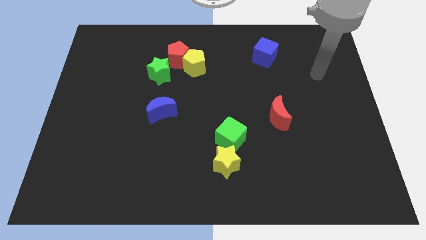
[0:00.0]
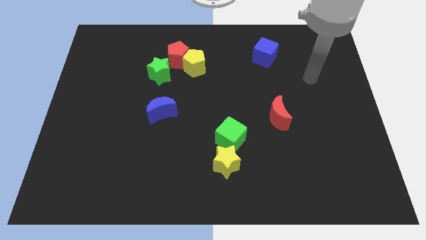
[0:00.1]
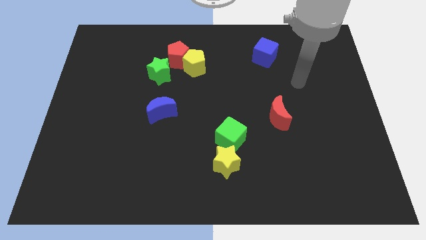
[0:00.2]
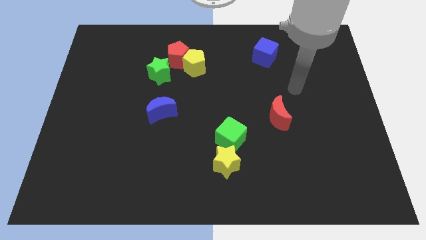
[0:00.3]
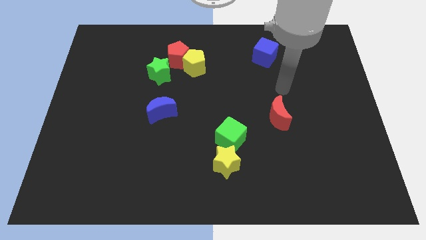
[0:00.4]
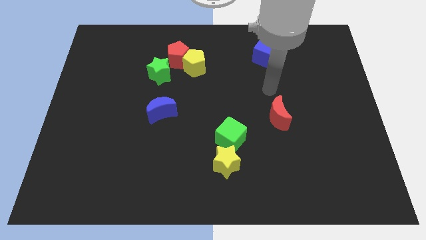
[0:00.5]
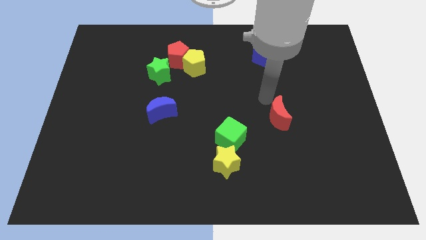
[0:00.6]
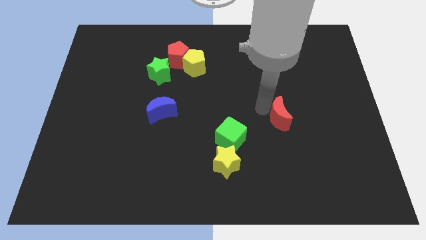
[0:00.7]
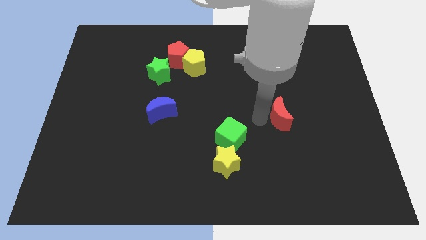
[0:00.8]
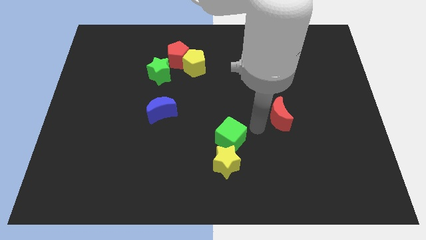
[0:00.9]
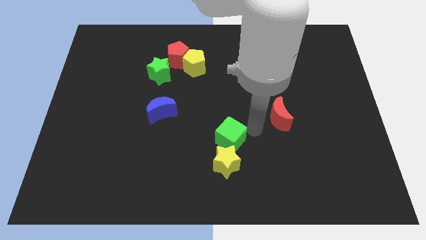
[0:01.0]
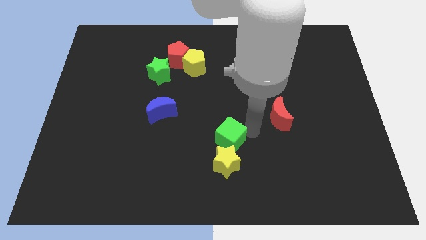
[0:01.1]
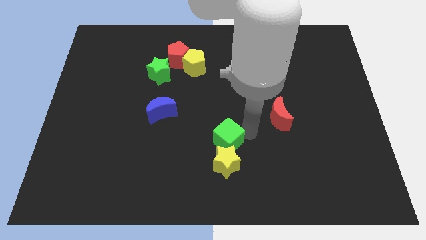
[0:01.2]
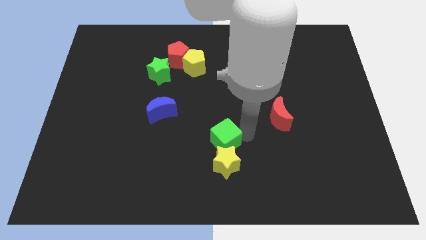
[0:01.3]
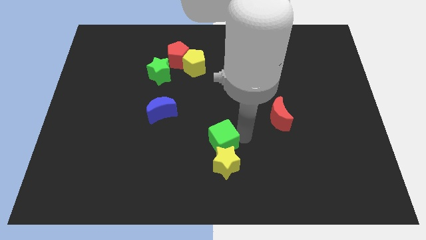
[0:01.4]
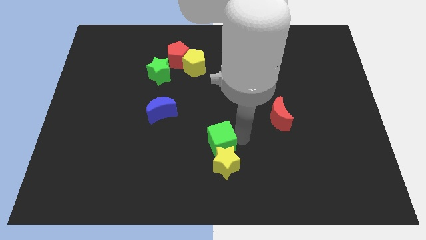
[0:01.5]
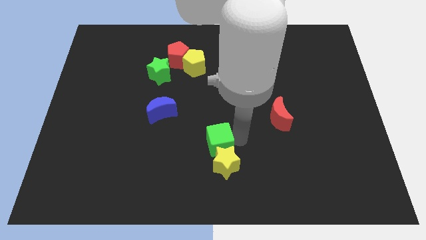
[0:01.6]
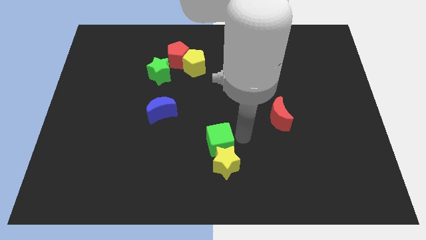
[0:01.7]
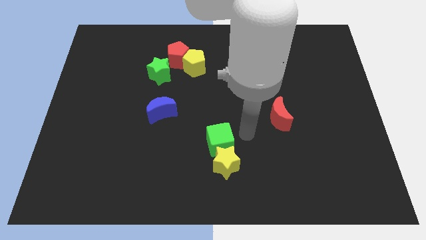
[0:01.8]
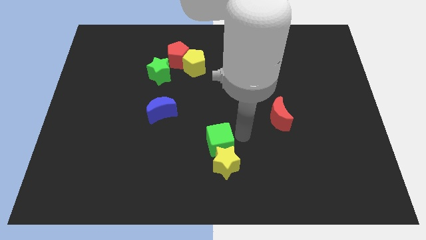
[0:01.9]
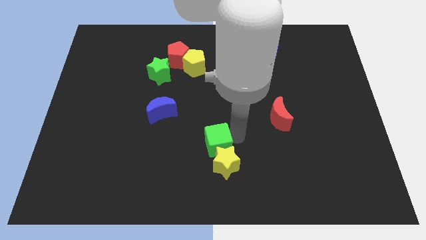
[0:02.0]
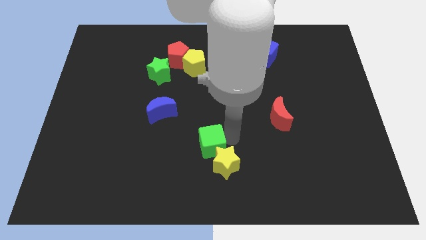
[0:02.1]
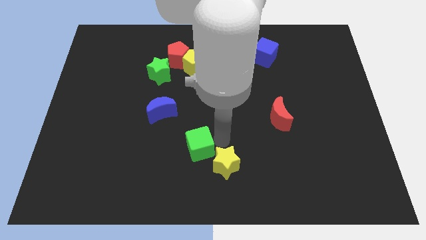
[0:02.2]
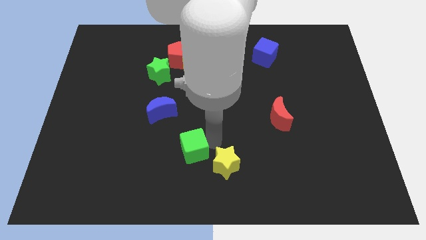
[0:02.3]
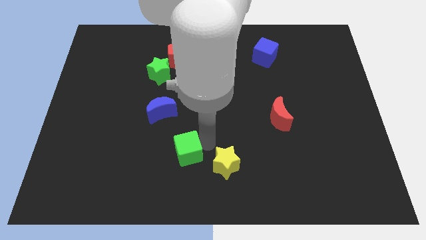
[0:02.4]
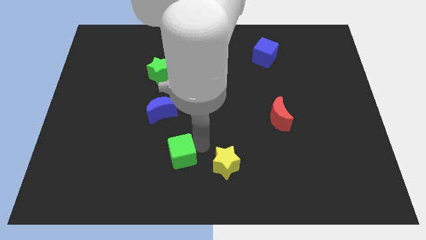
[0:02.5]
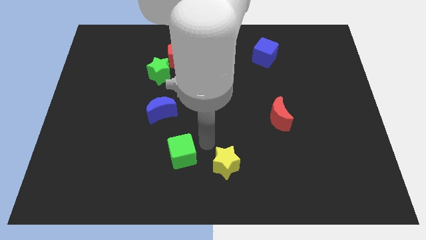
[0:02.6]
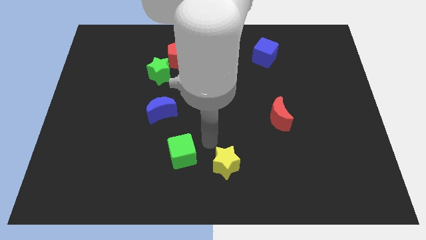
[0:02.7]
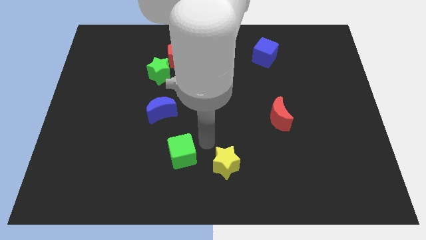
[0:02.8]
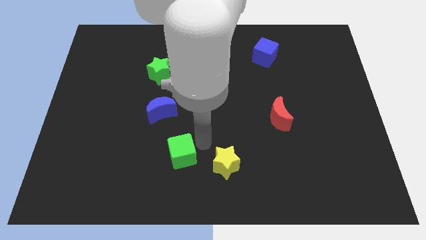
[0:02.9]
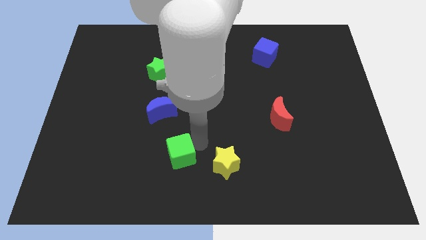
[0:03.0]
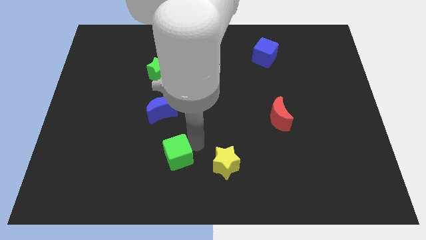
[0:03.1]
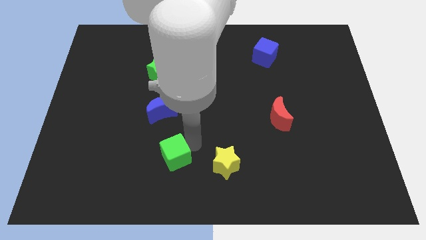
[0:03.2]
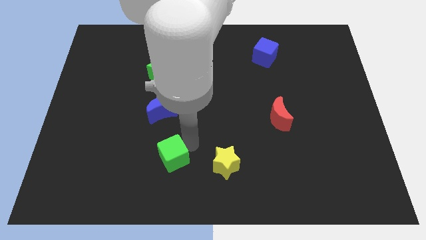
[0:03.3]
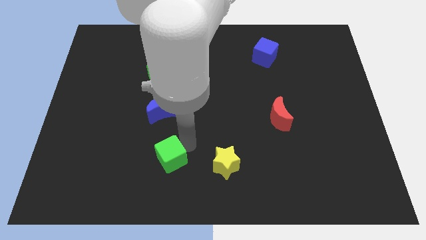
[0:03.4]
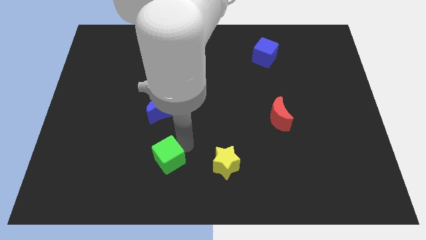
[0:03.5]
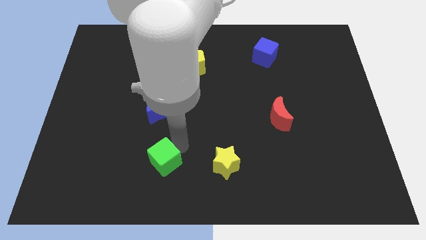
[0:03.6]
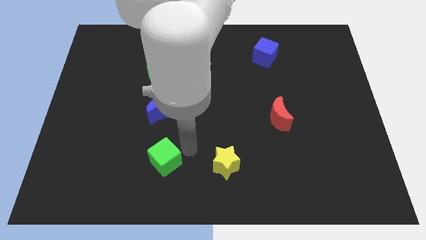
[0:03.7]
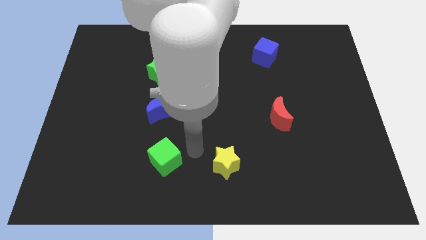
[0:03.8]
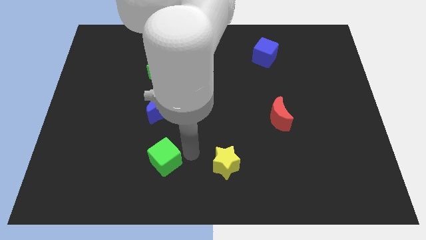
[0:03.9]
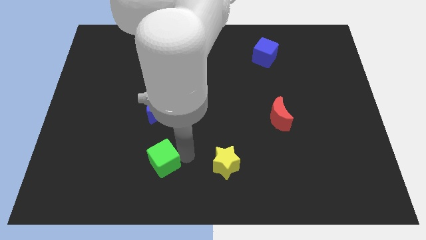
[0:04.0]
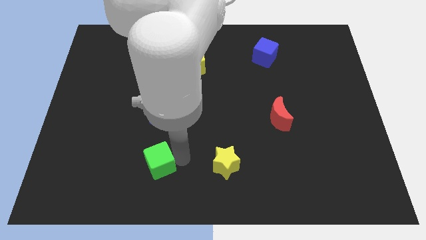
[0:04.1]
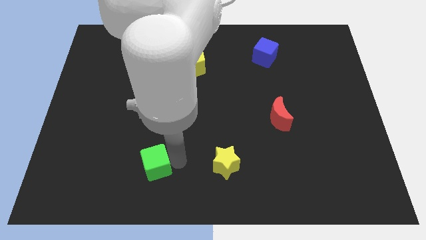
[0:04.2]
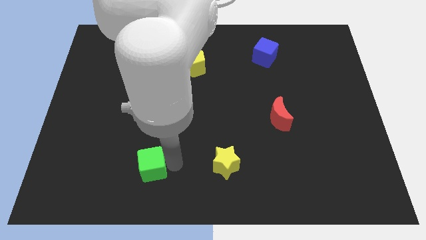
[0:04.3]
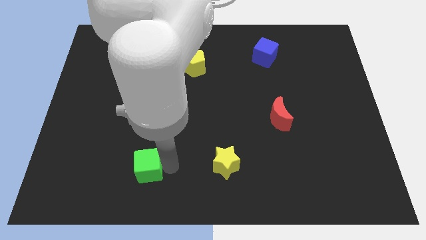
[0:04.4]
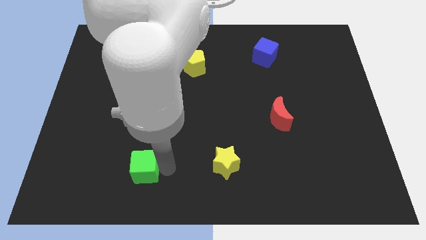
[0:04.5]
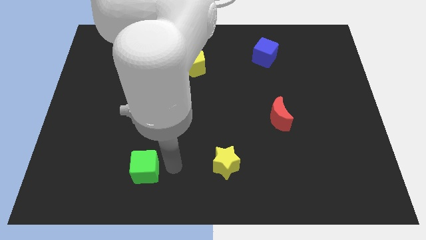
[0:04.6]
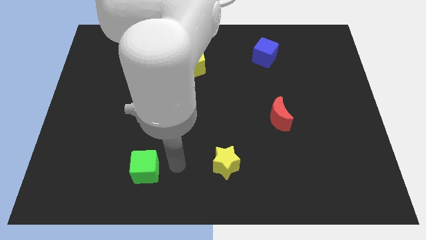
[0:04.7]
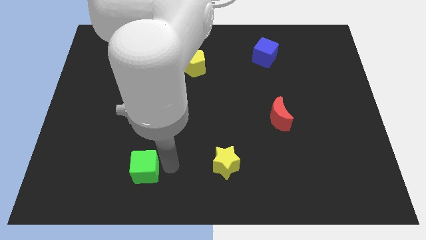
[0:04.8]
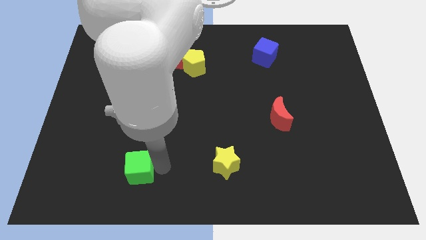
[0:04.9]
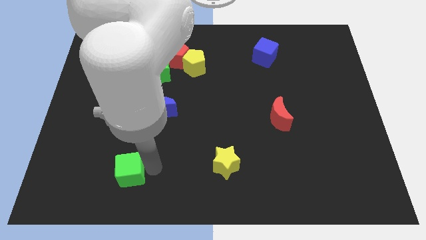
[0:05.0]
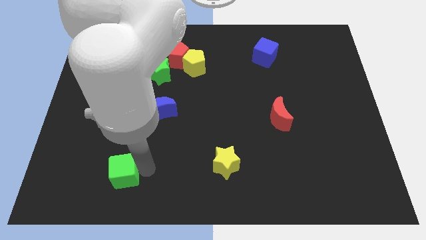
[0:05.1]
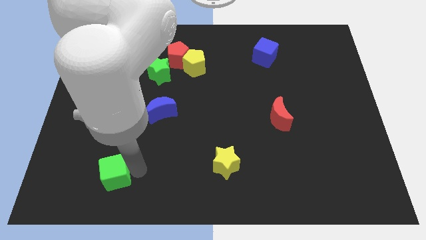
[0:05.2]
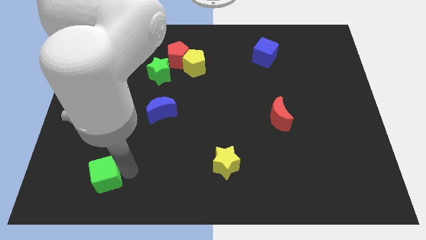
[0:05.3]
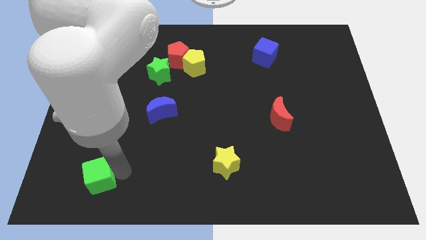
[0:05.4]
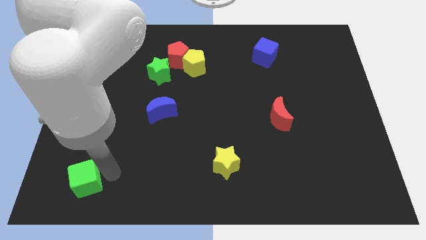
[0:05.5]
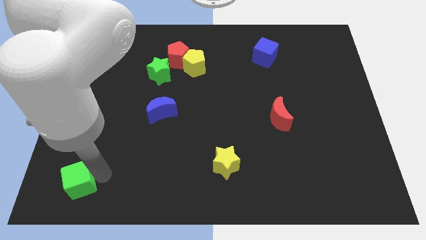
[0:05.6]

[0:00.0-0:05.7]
put the green cube to the bottom left

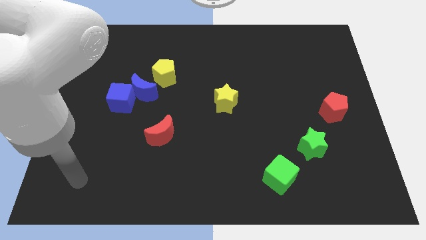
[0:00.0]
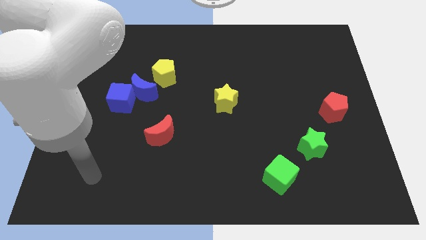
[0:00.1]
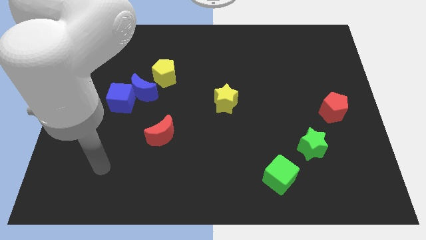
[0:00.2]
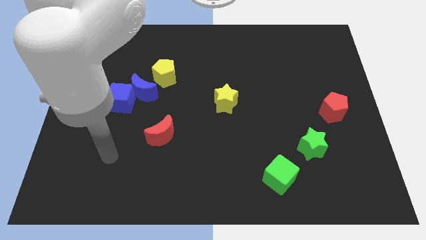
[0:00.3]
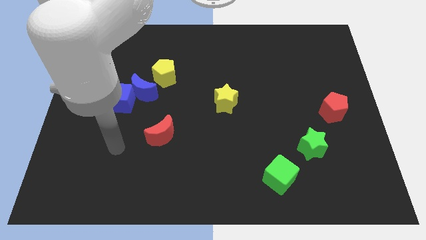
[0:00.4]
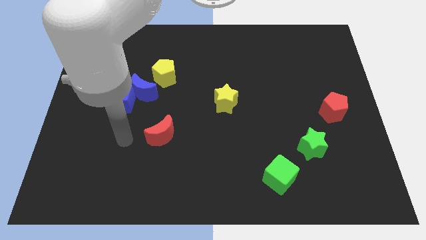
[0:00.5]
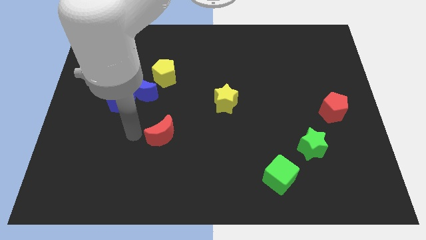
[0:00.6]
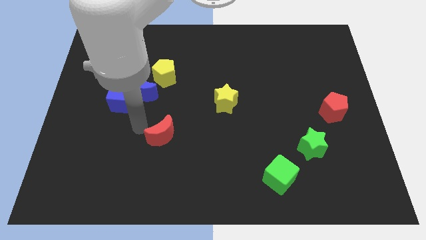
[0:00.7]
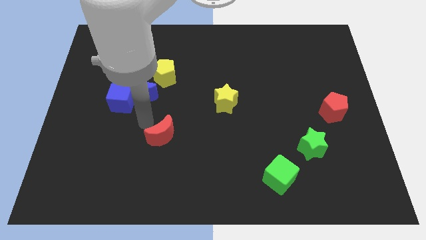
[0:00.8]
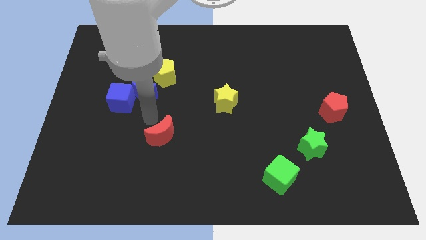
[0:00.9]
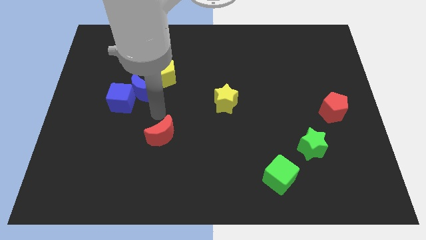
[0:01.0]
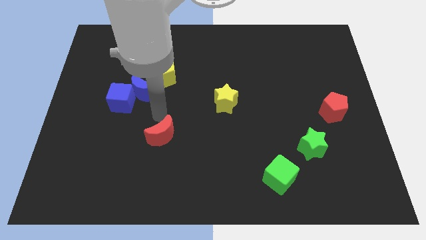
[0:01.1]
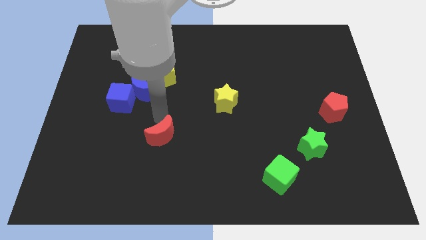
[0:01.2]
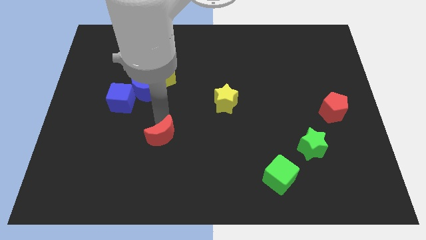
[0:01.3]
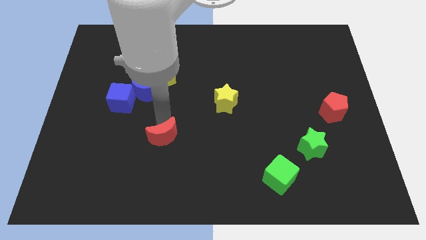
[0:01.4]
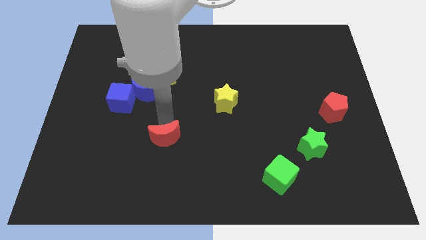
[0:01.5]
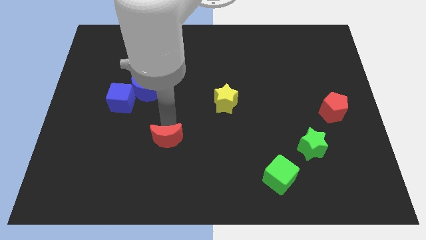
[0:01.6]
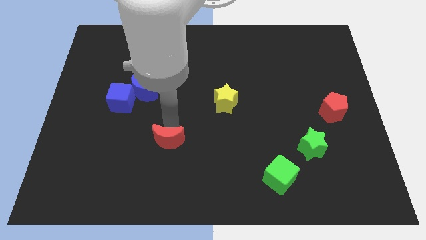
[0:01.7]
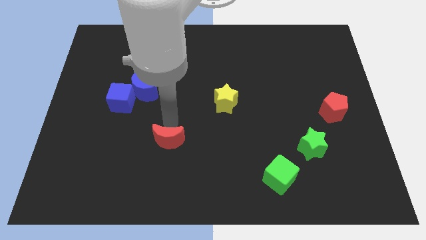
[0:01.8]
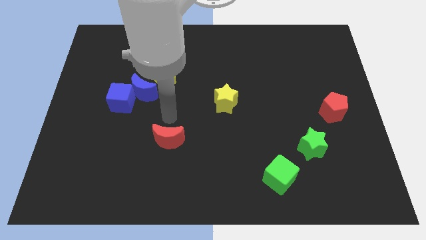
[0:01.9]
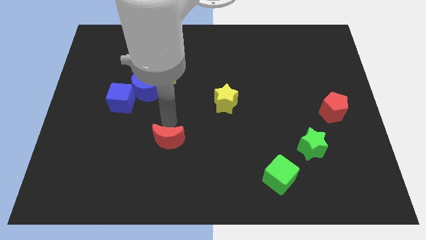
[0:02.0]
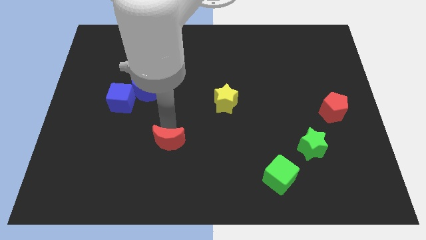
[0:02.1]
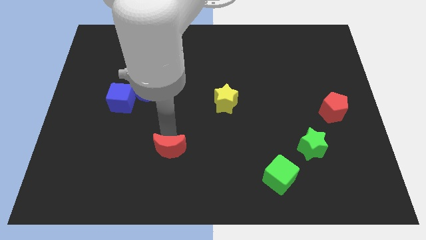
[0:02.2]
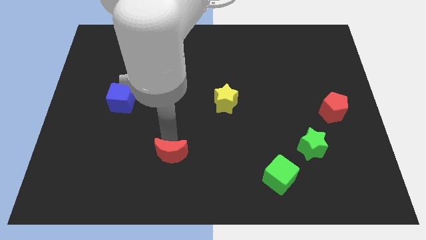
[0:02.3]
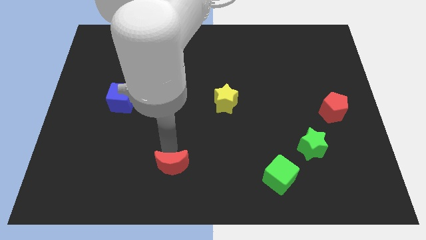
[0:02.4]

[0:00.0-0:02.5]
push the red moon to the bottom side
